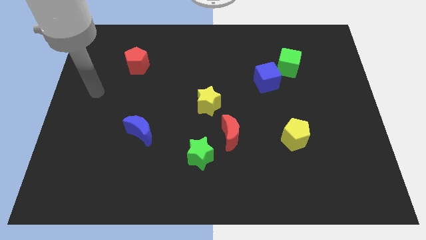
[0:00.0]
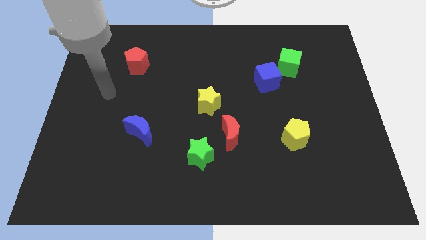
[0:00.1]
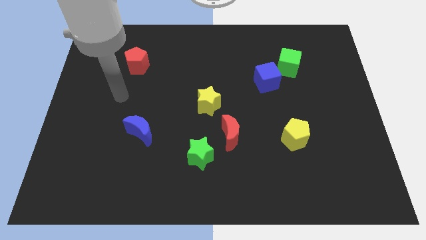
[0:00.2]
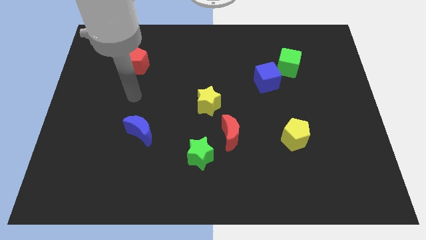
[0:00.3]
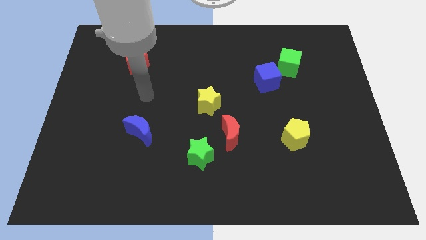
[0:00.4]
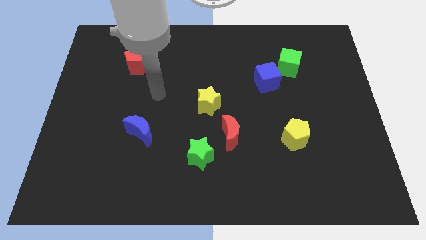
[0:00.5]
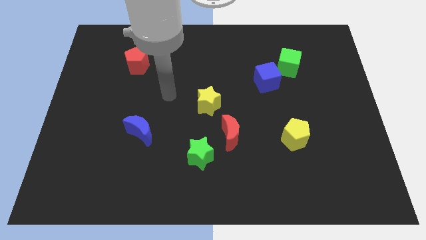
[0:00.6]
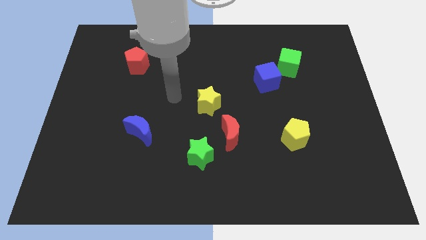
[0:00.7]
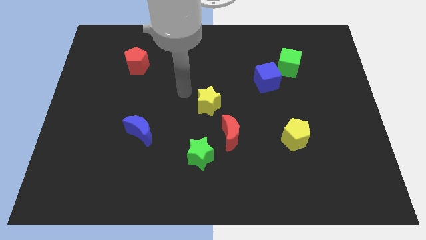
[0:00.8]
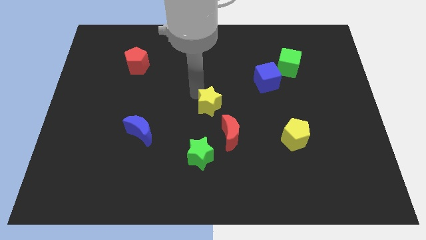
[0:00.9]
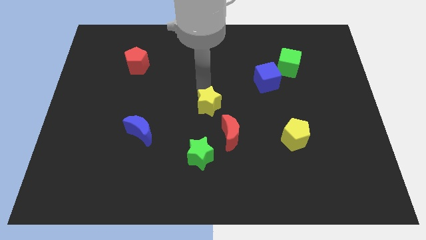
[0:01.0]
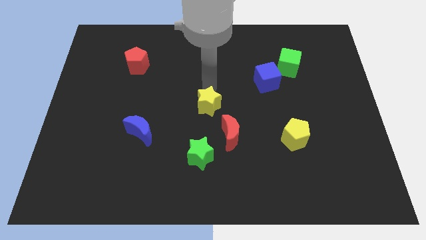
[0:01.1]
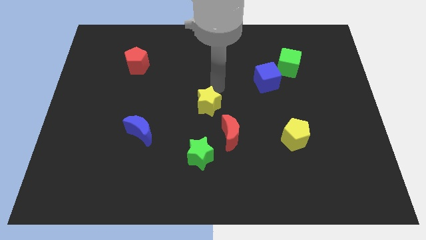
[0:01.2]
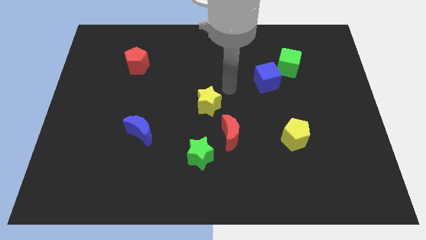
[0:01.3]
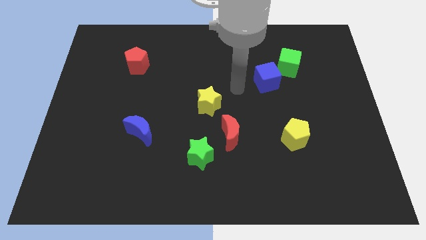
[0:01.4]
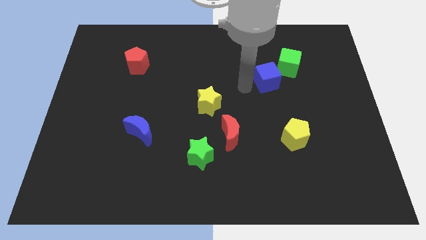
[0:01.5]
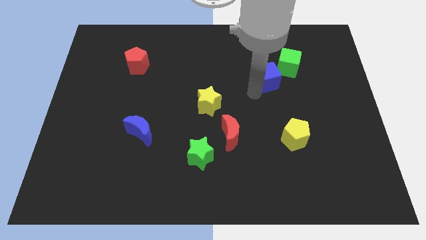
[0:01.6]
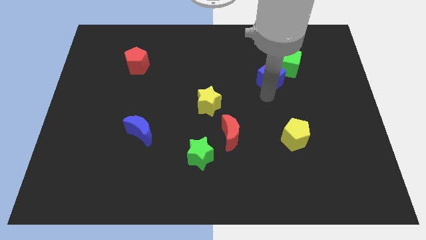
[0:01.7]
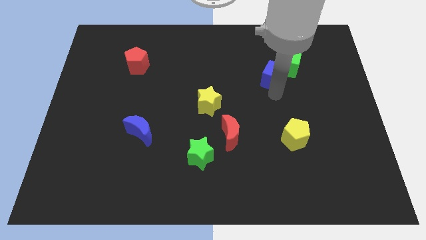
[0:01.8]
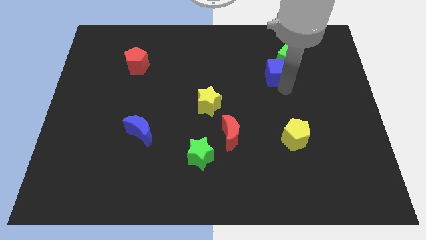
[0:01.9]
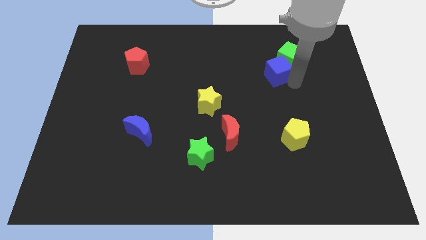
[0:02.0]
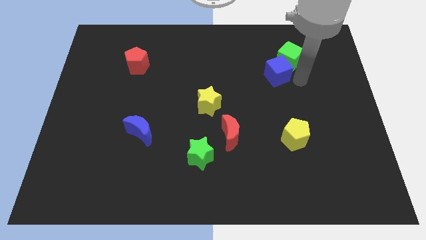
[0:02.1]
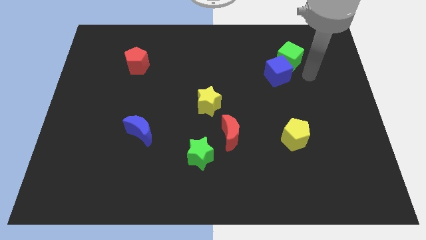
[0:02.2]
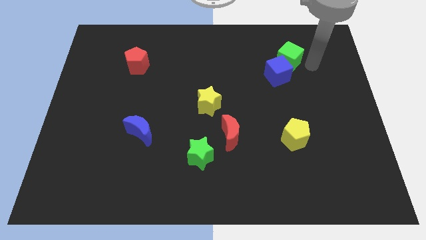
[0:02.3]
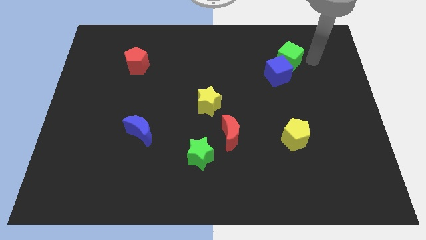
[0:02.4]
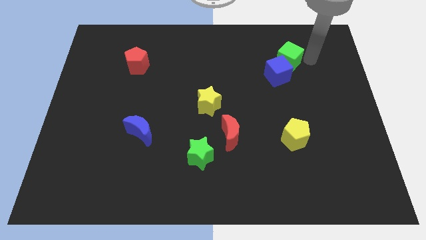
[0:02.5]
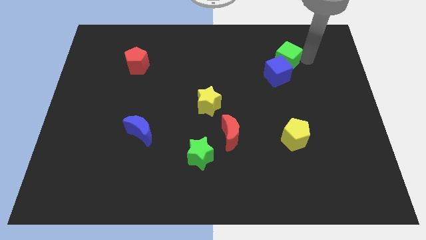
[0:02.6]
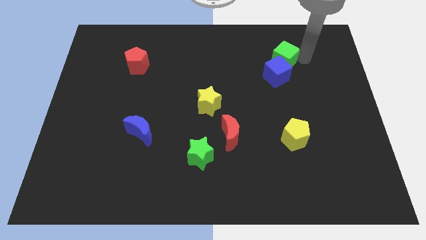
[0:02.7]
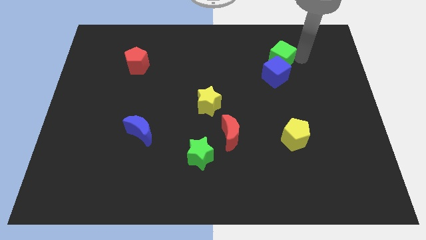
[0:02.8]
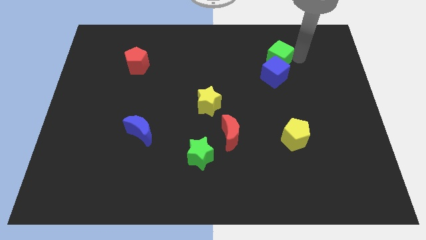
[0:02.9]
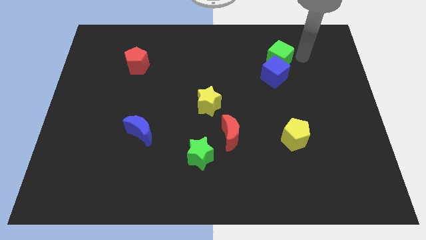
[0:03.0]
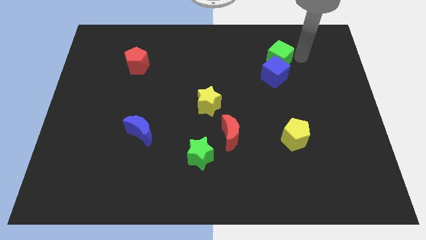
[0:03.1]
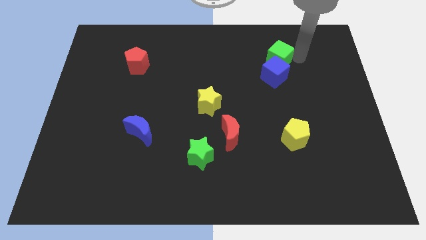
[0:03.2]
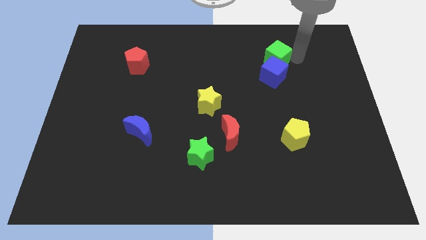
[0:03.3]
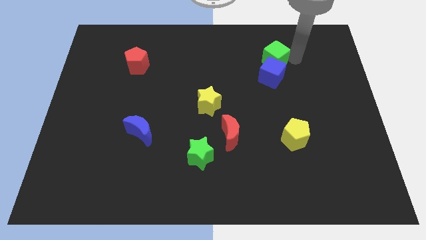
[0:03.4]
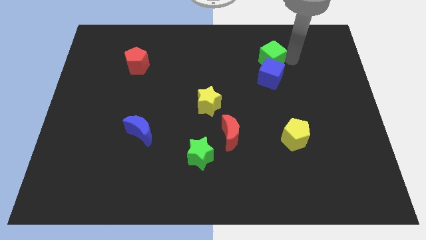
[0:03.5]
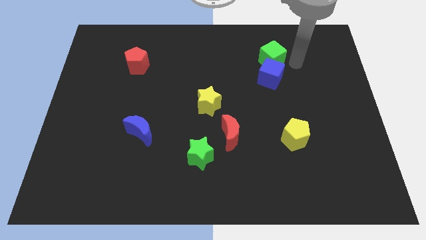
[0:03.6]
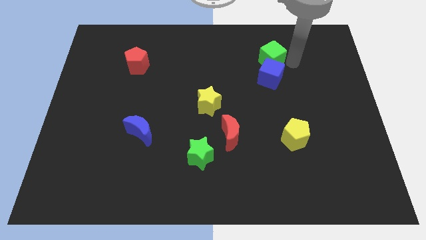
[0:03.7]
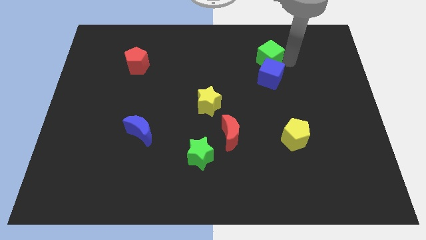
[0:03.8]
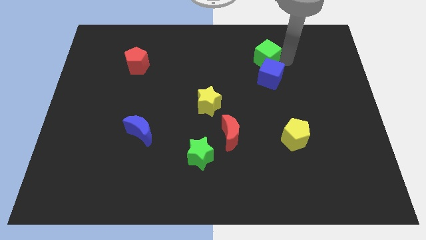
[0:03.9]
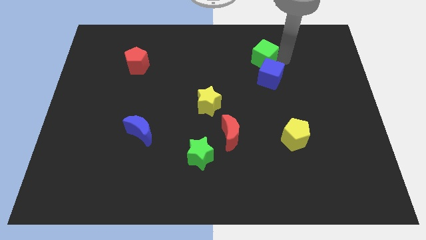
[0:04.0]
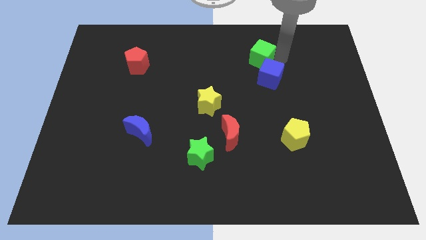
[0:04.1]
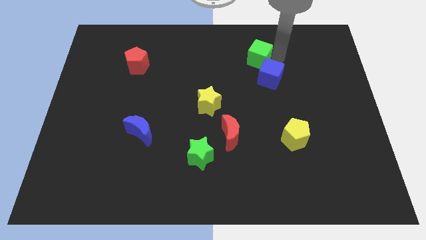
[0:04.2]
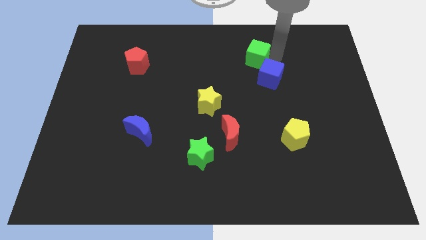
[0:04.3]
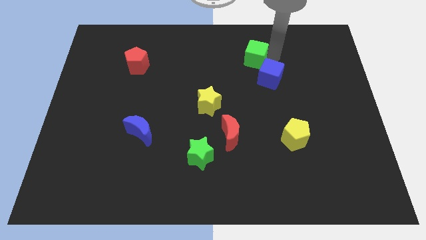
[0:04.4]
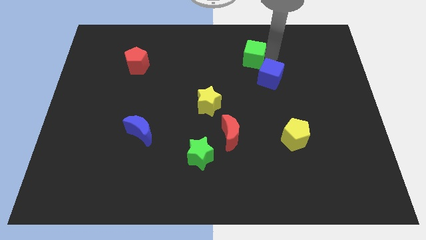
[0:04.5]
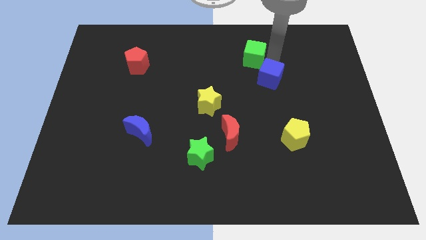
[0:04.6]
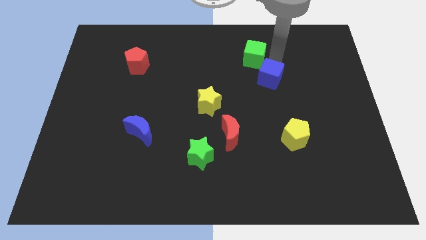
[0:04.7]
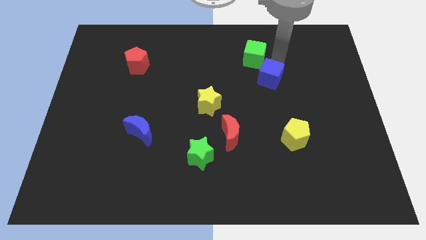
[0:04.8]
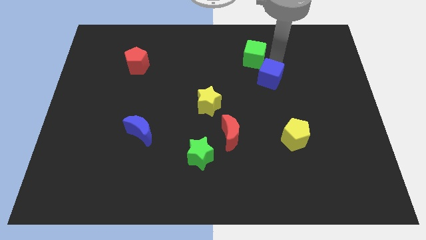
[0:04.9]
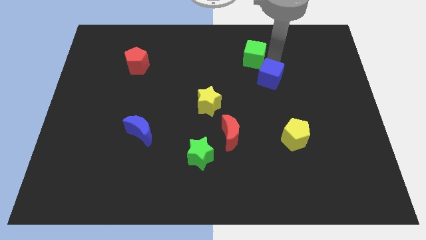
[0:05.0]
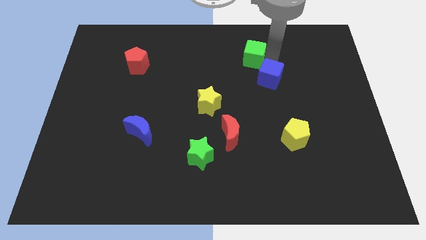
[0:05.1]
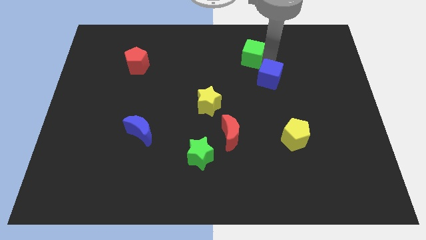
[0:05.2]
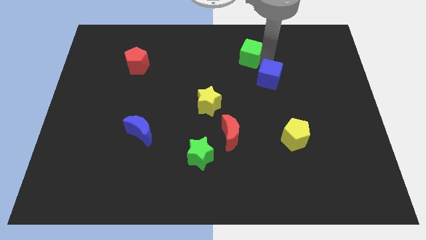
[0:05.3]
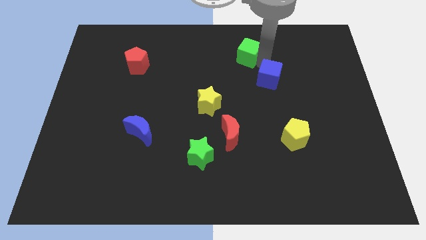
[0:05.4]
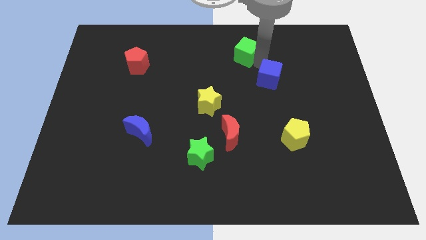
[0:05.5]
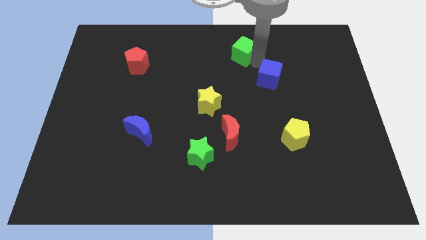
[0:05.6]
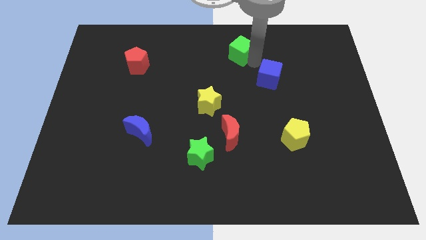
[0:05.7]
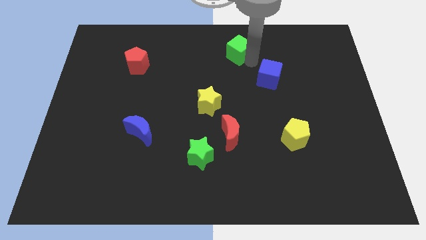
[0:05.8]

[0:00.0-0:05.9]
push the green cube to the top

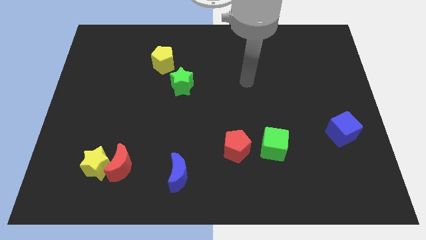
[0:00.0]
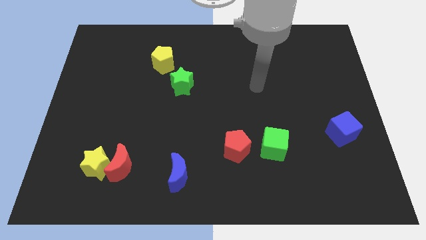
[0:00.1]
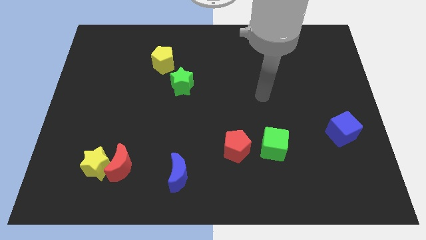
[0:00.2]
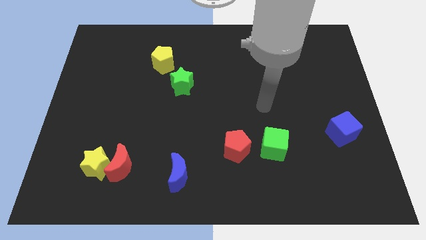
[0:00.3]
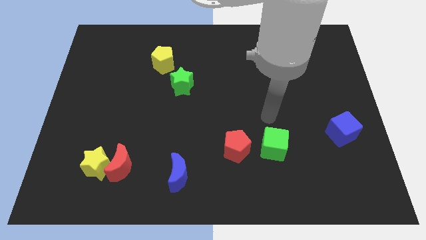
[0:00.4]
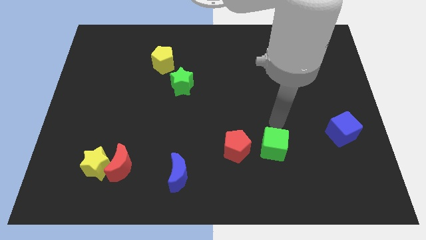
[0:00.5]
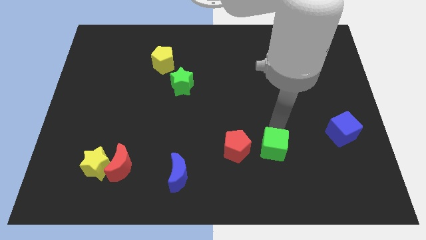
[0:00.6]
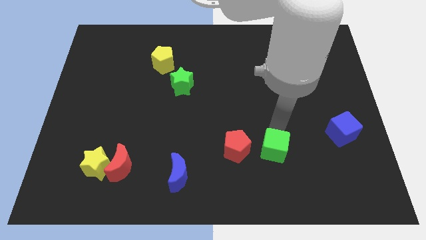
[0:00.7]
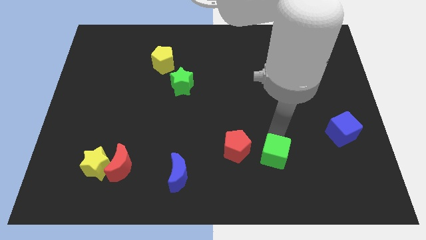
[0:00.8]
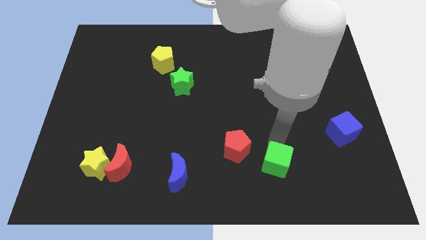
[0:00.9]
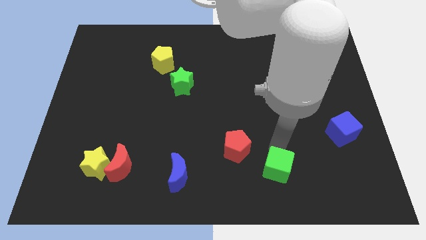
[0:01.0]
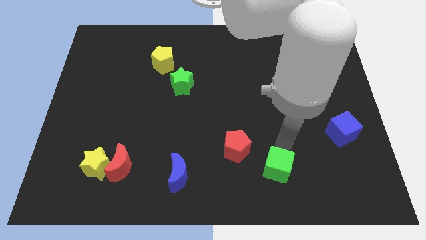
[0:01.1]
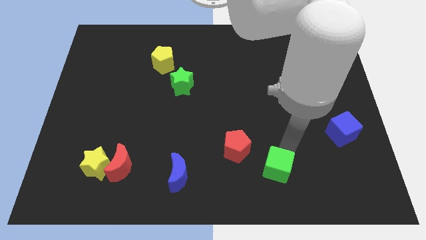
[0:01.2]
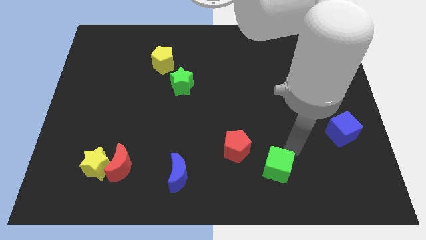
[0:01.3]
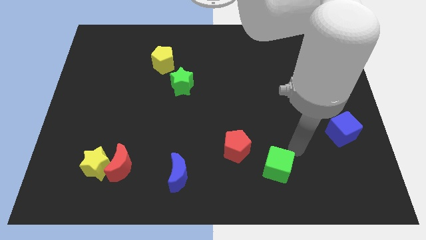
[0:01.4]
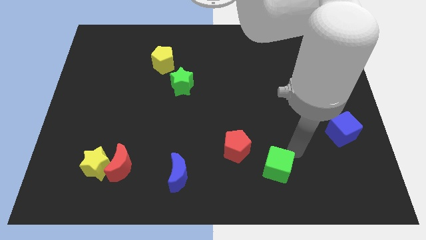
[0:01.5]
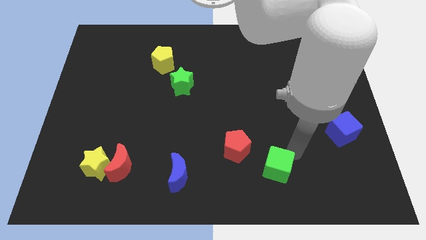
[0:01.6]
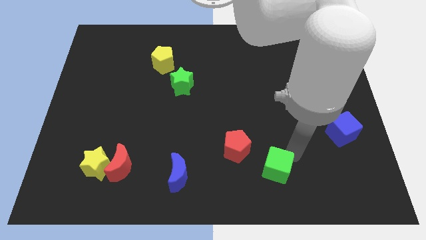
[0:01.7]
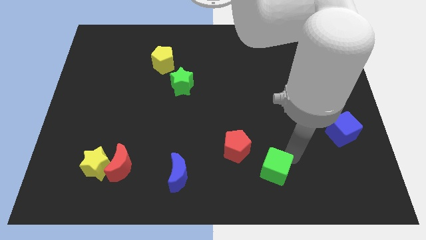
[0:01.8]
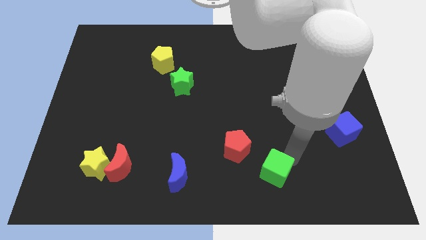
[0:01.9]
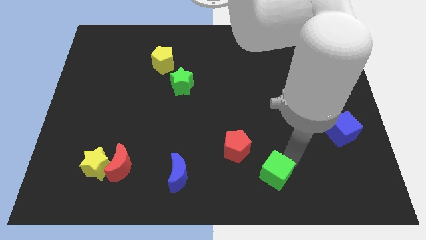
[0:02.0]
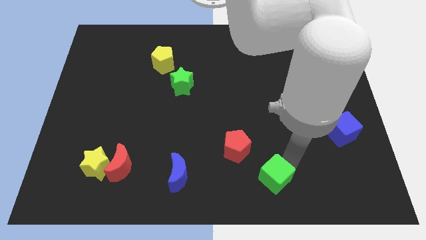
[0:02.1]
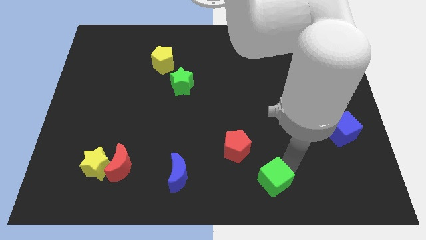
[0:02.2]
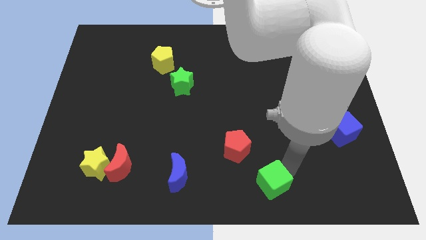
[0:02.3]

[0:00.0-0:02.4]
put the green cube to the bottom side
